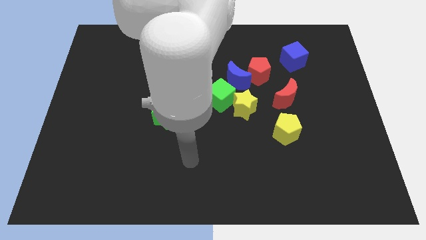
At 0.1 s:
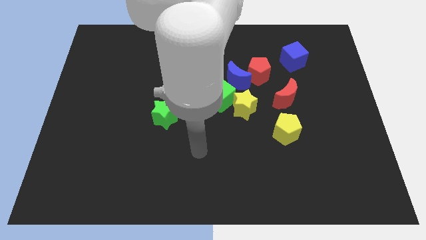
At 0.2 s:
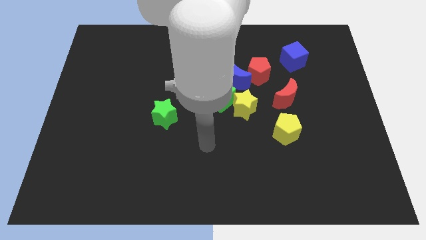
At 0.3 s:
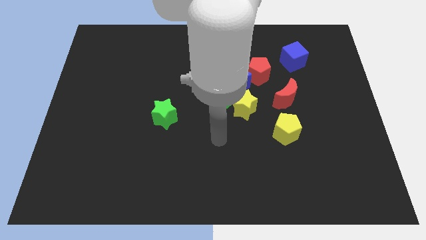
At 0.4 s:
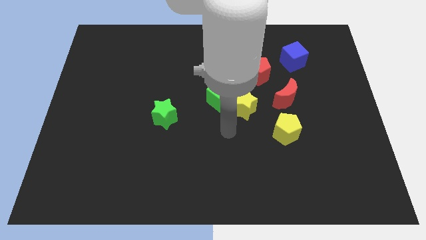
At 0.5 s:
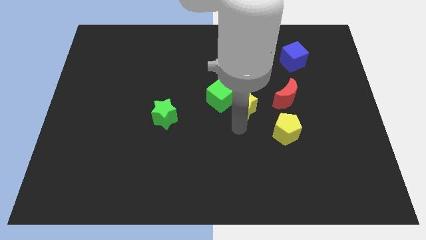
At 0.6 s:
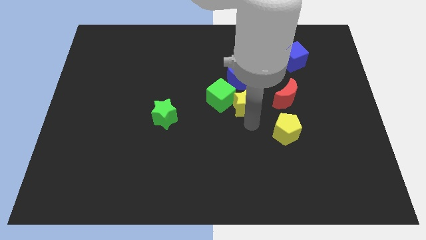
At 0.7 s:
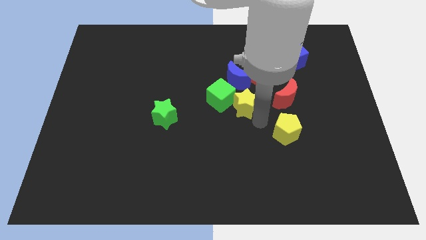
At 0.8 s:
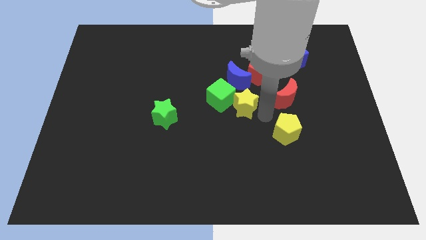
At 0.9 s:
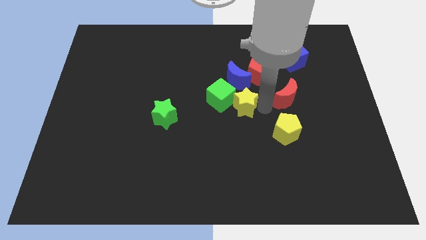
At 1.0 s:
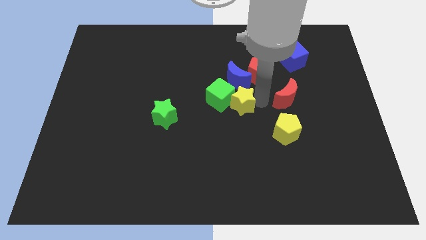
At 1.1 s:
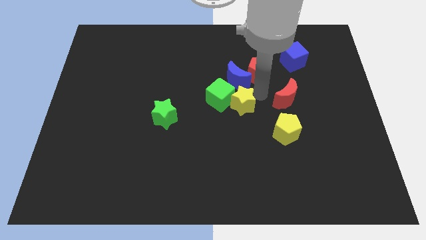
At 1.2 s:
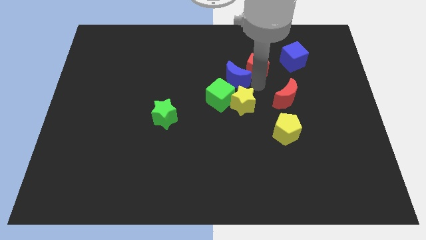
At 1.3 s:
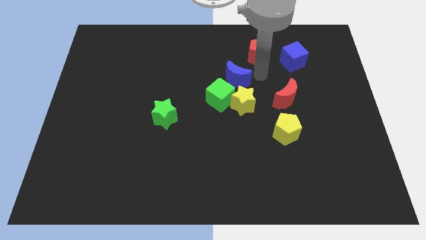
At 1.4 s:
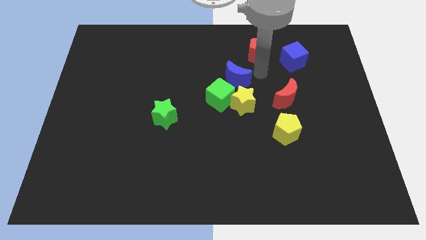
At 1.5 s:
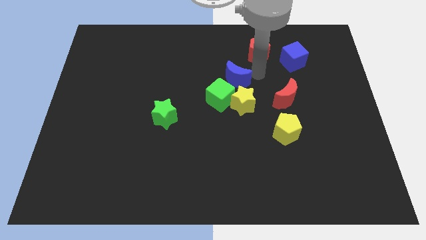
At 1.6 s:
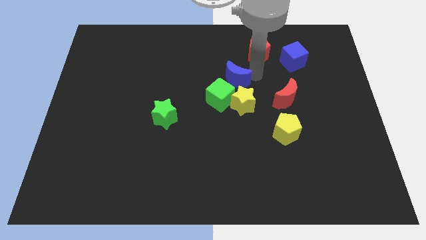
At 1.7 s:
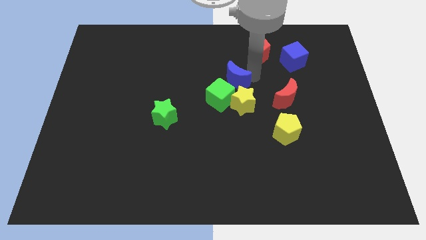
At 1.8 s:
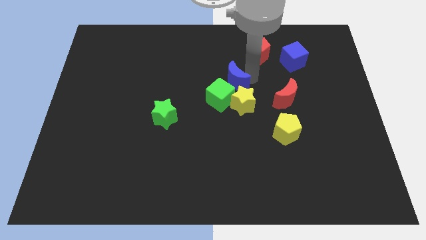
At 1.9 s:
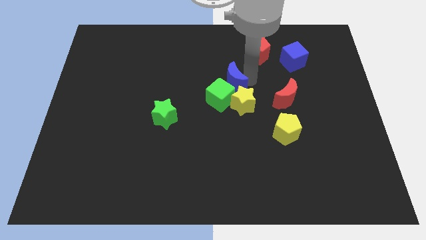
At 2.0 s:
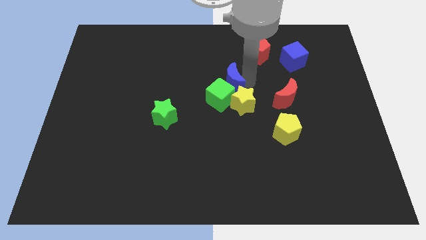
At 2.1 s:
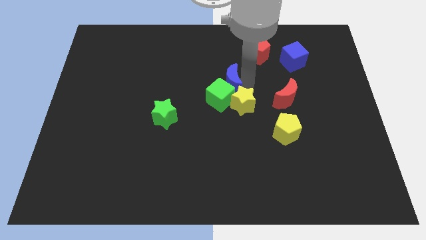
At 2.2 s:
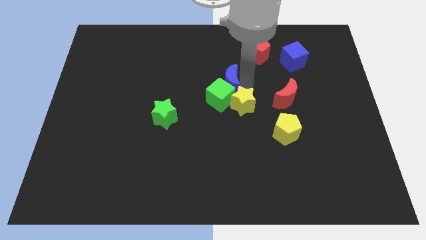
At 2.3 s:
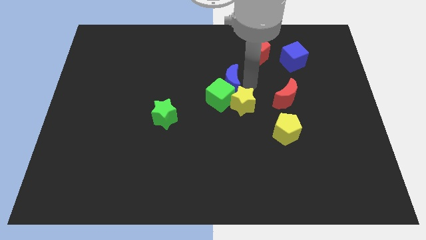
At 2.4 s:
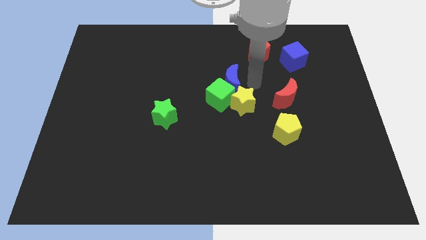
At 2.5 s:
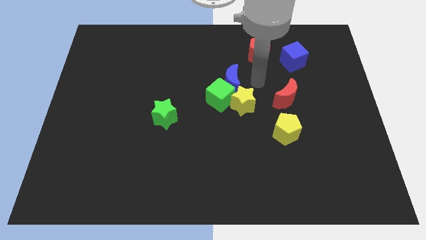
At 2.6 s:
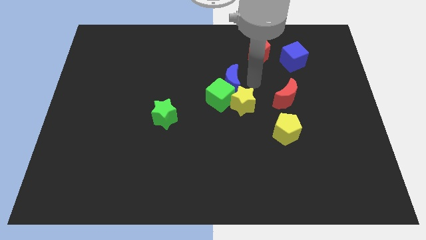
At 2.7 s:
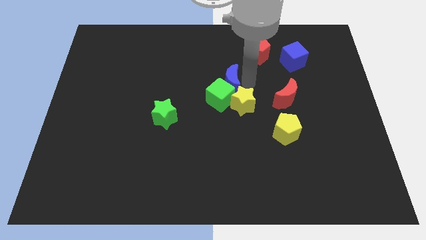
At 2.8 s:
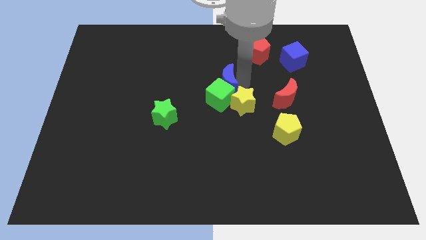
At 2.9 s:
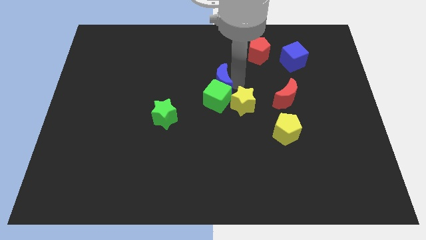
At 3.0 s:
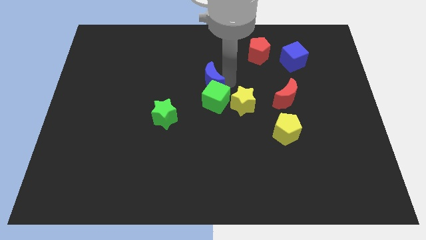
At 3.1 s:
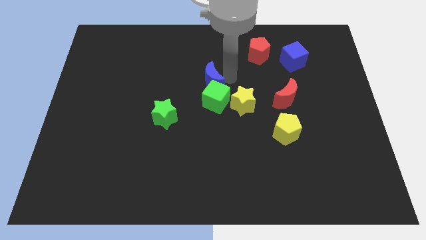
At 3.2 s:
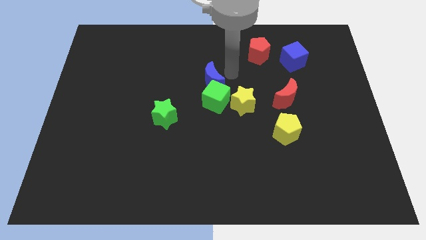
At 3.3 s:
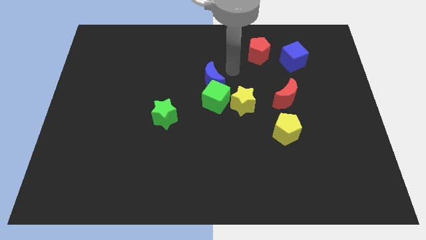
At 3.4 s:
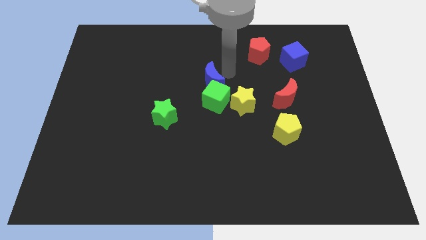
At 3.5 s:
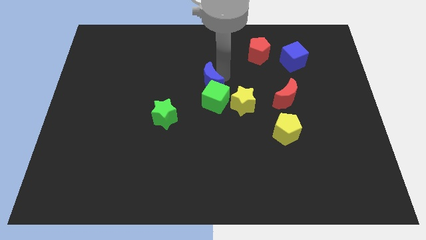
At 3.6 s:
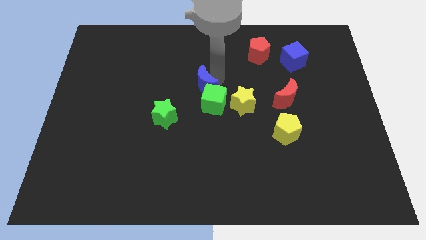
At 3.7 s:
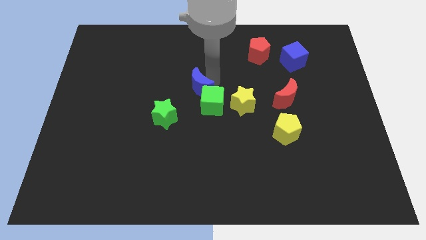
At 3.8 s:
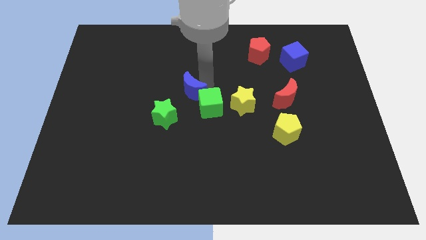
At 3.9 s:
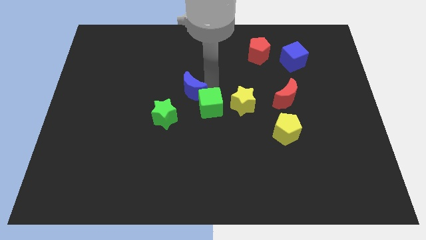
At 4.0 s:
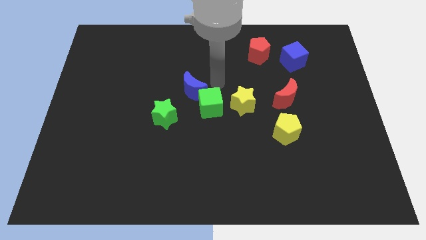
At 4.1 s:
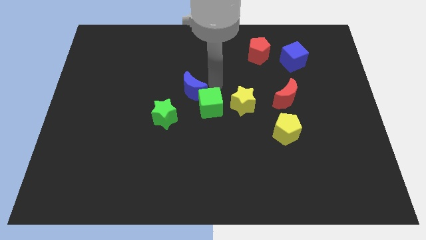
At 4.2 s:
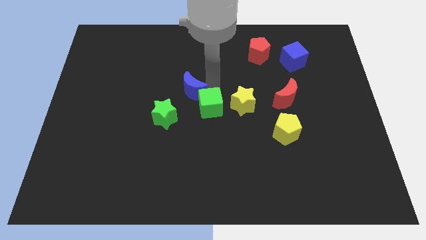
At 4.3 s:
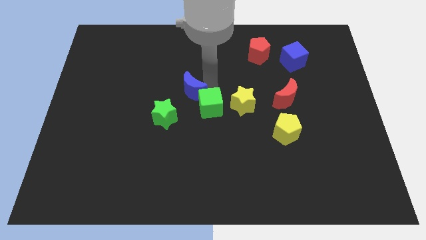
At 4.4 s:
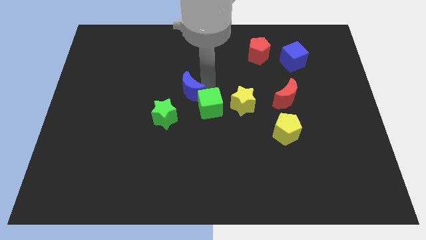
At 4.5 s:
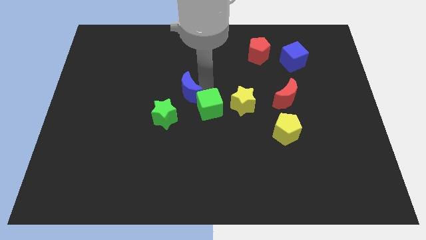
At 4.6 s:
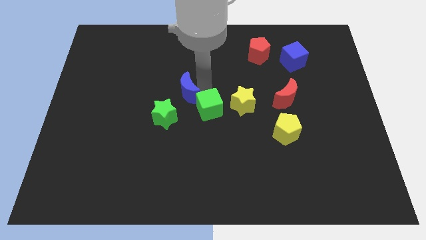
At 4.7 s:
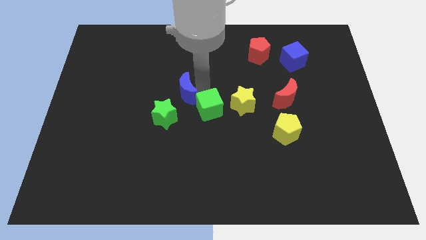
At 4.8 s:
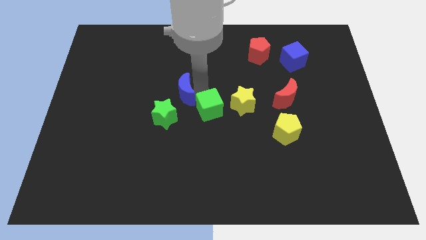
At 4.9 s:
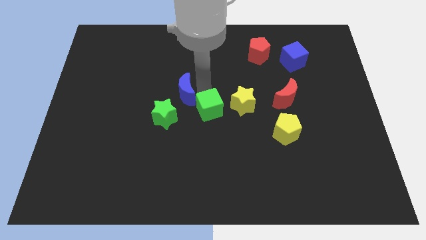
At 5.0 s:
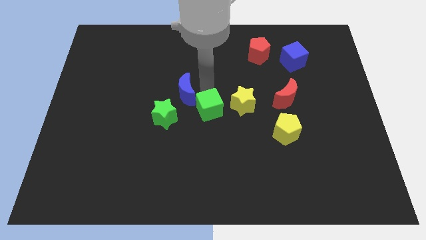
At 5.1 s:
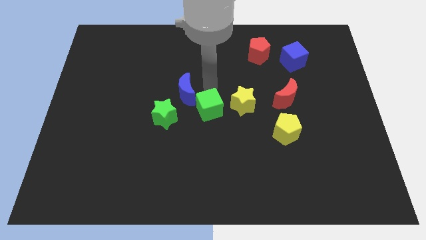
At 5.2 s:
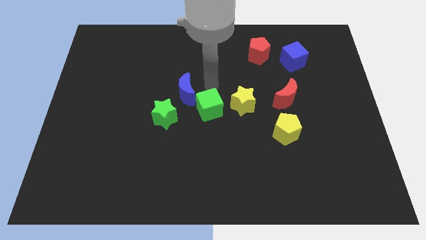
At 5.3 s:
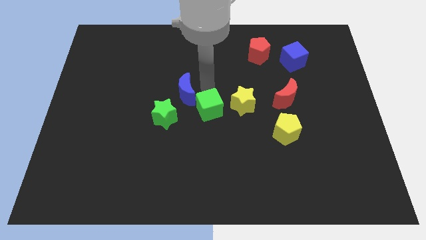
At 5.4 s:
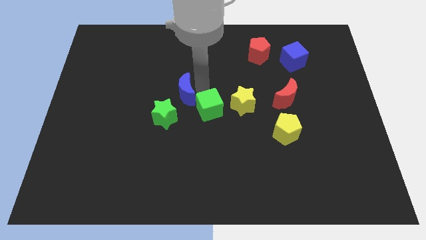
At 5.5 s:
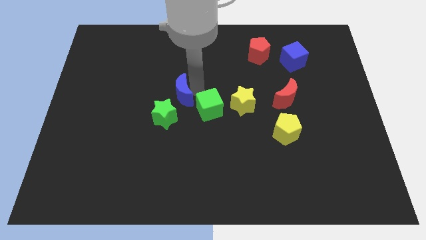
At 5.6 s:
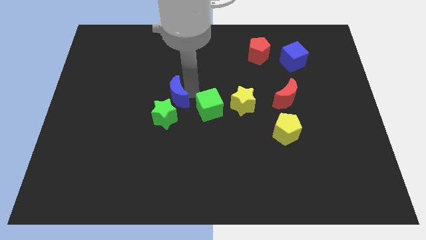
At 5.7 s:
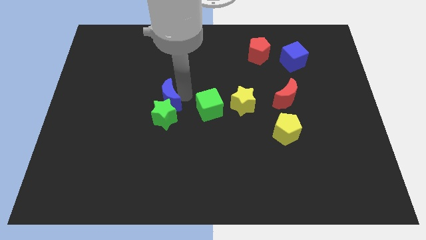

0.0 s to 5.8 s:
move the blue moon to the top left of the green star

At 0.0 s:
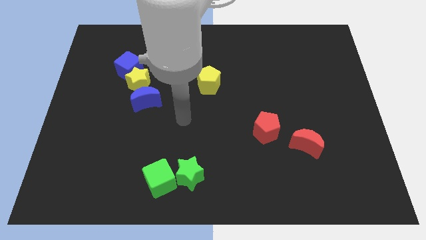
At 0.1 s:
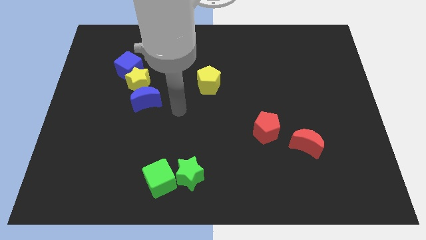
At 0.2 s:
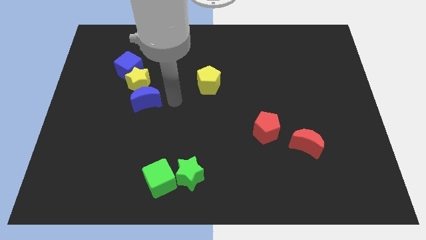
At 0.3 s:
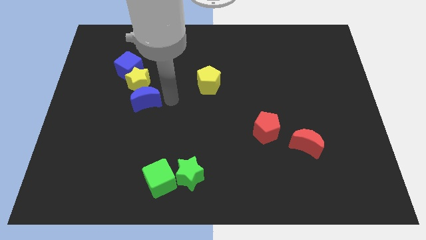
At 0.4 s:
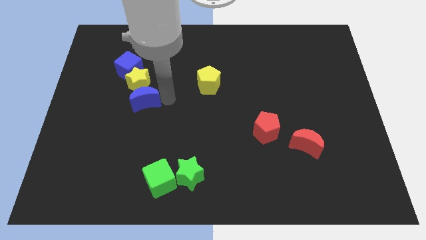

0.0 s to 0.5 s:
push the blue moon to the bottom of the blue cube
